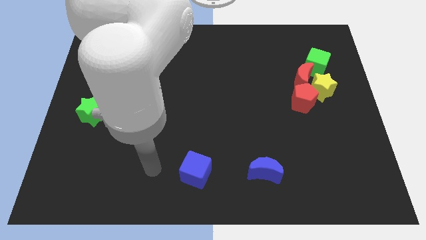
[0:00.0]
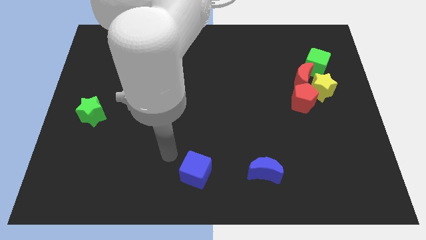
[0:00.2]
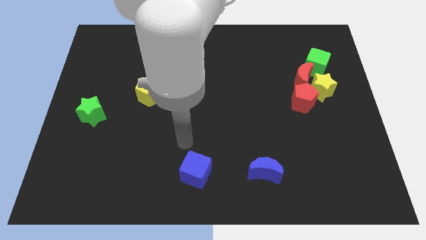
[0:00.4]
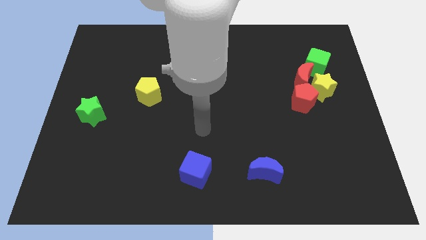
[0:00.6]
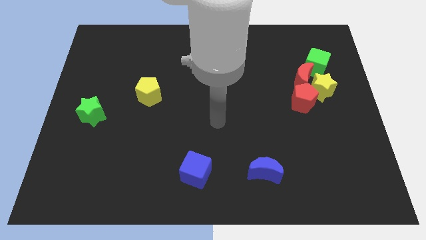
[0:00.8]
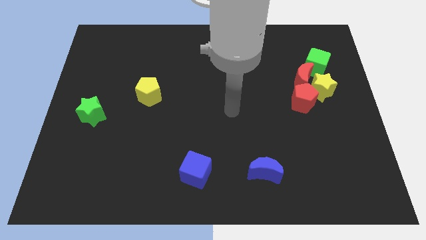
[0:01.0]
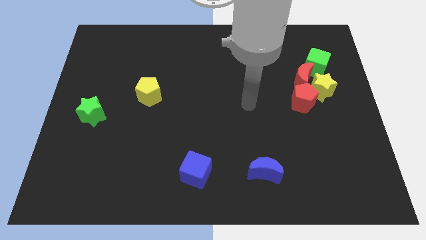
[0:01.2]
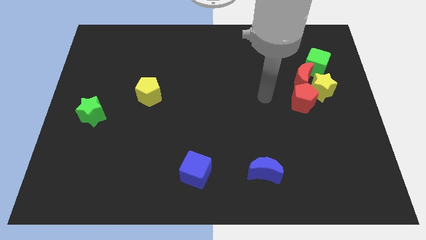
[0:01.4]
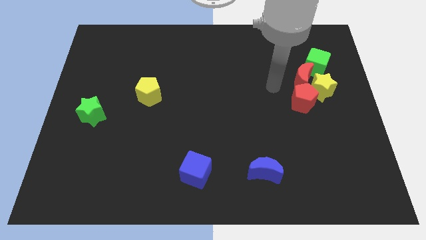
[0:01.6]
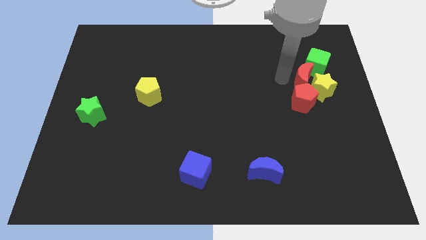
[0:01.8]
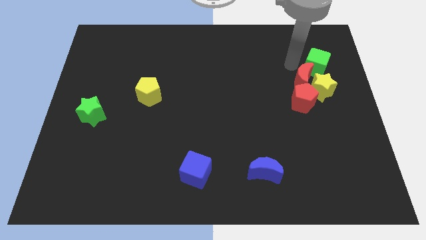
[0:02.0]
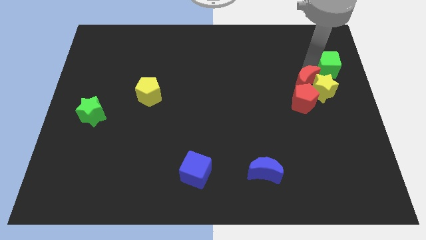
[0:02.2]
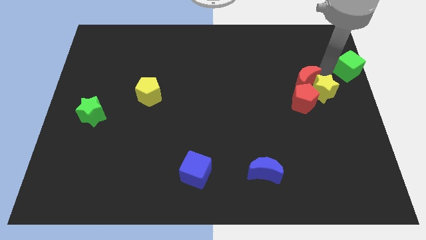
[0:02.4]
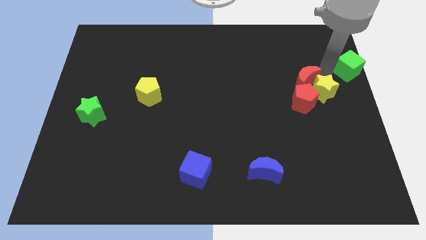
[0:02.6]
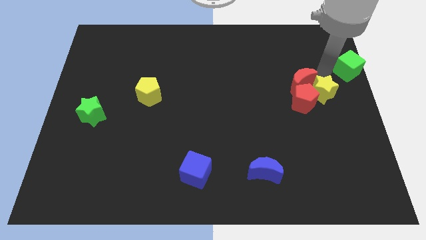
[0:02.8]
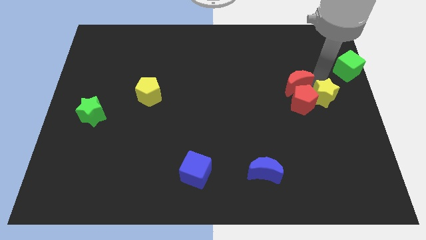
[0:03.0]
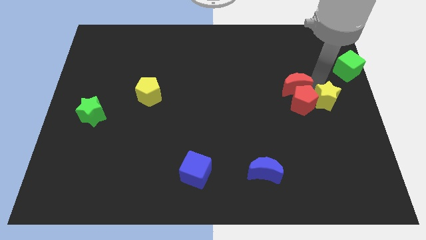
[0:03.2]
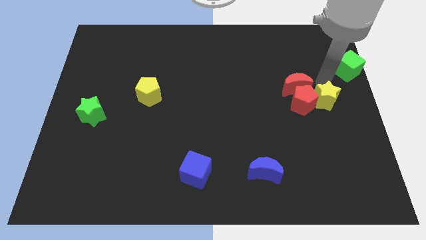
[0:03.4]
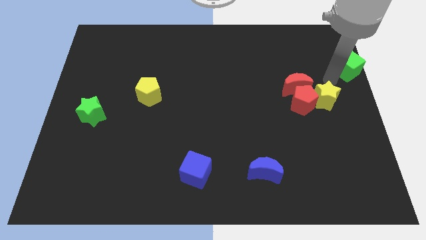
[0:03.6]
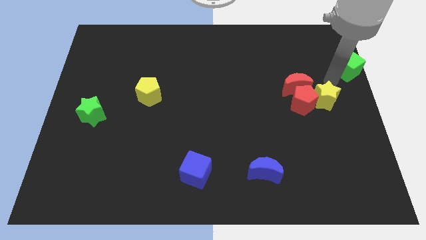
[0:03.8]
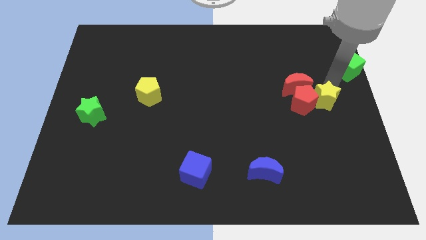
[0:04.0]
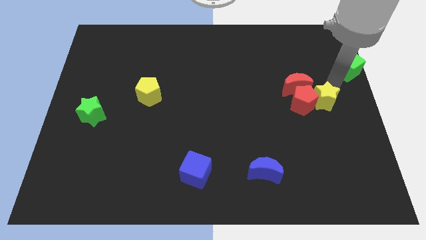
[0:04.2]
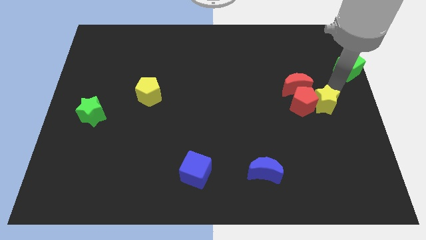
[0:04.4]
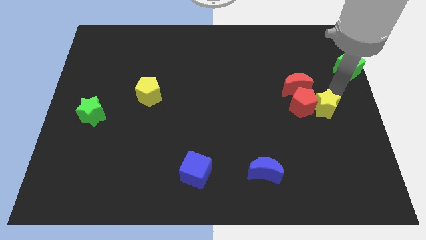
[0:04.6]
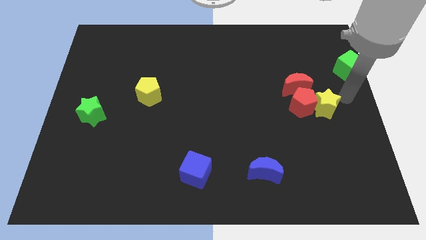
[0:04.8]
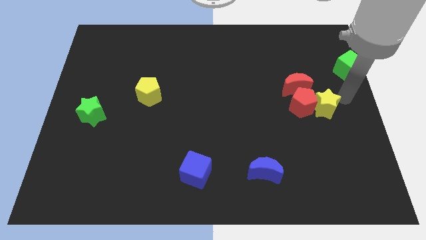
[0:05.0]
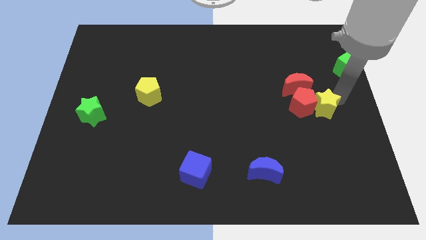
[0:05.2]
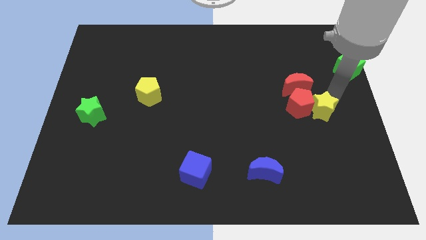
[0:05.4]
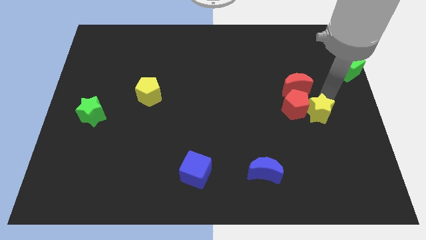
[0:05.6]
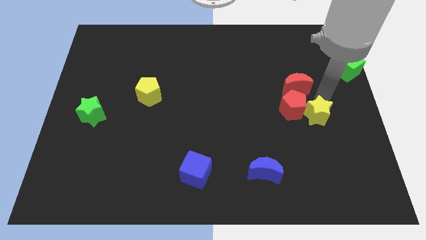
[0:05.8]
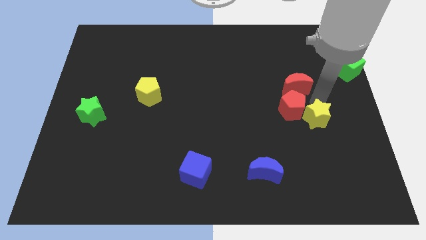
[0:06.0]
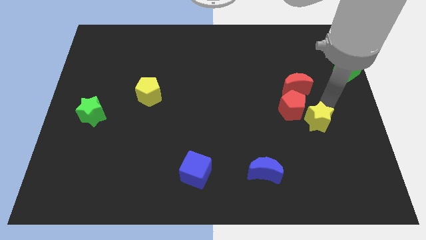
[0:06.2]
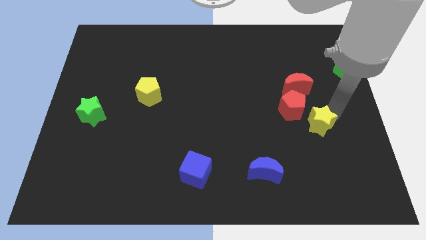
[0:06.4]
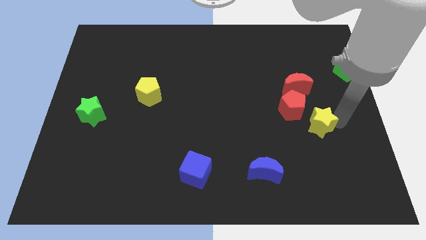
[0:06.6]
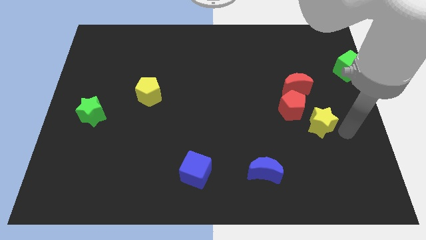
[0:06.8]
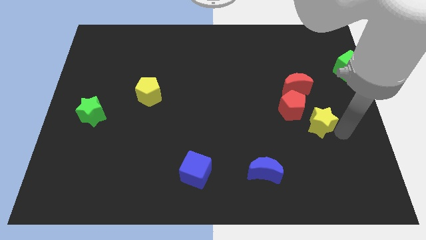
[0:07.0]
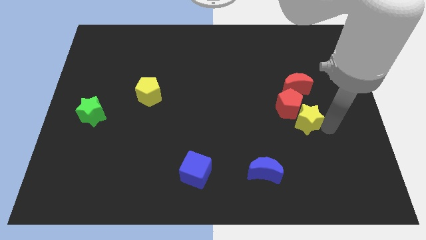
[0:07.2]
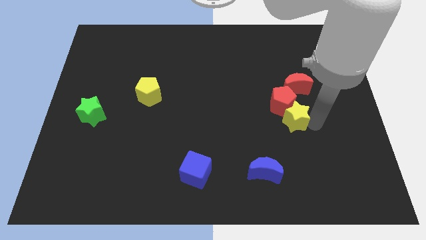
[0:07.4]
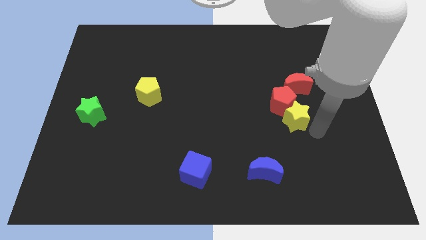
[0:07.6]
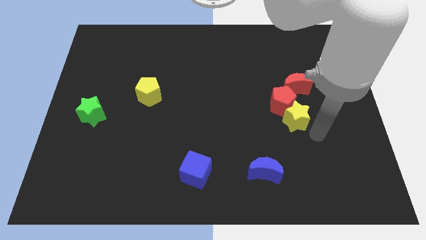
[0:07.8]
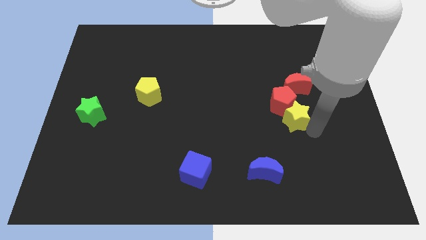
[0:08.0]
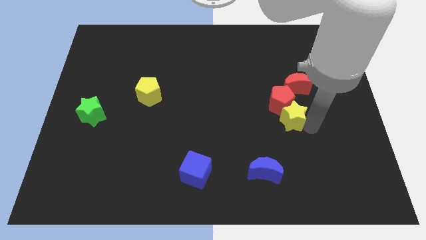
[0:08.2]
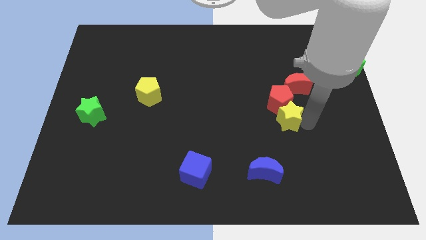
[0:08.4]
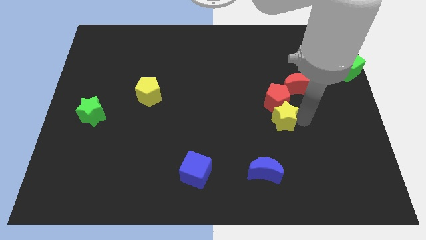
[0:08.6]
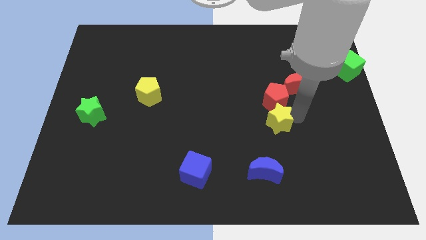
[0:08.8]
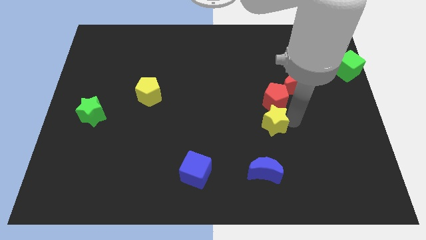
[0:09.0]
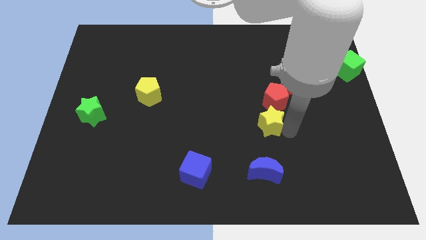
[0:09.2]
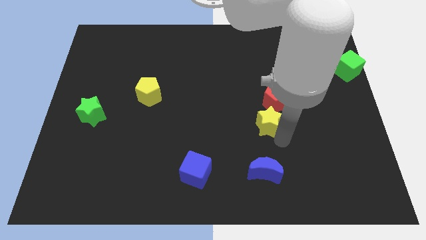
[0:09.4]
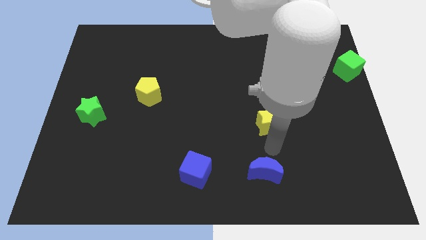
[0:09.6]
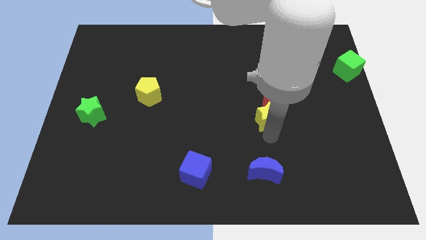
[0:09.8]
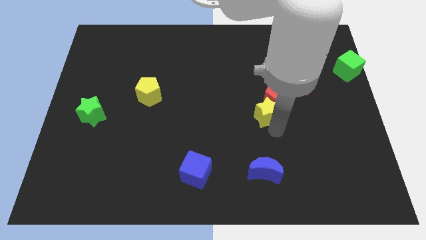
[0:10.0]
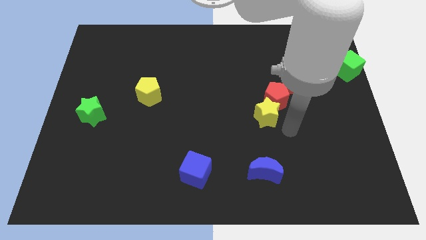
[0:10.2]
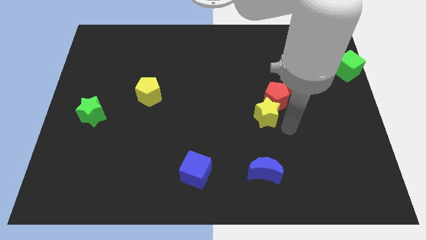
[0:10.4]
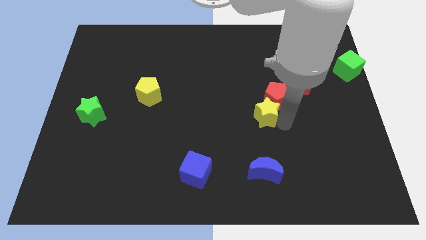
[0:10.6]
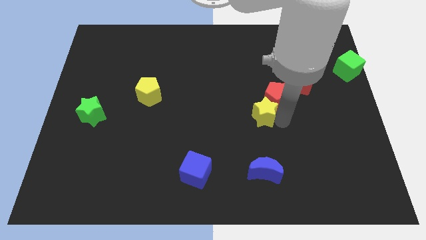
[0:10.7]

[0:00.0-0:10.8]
move the yellow star to the middle

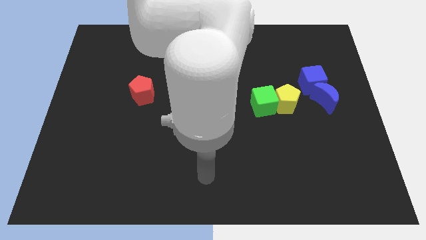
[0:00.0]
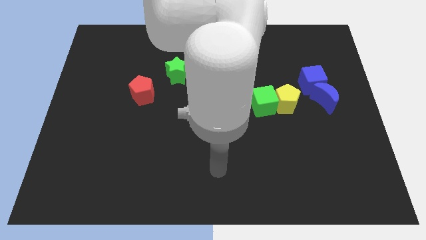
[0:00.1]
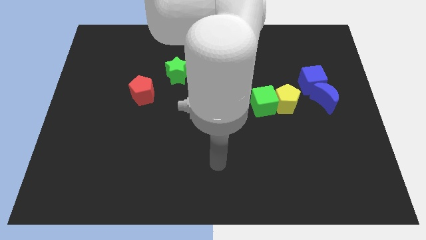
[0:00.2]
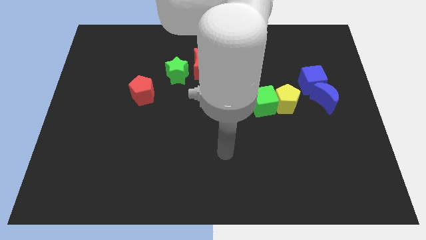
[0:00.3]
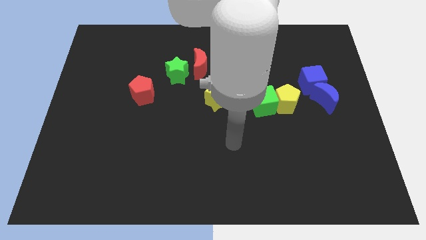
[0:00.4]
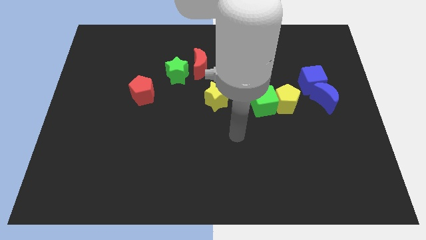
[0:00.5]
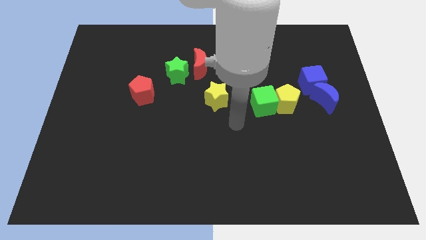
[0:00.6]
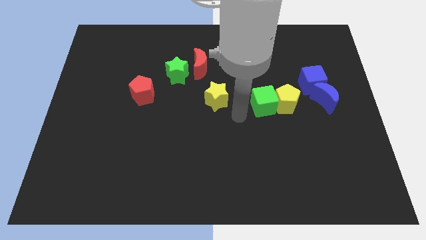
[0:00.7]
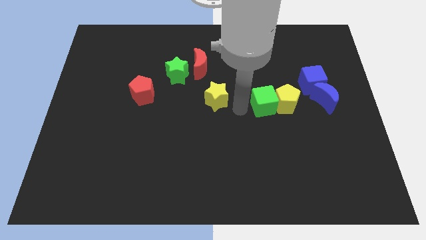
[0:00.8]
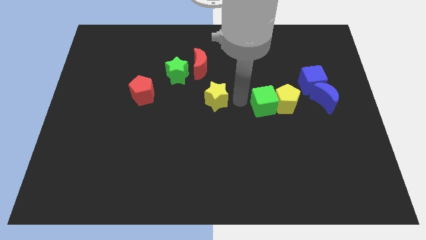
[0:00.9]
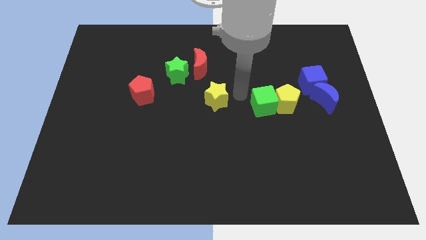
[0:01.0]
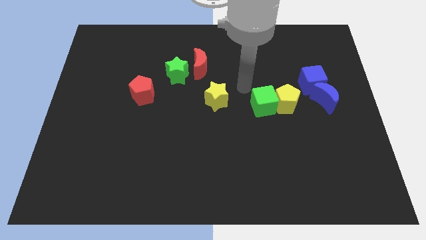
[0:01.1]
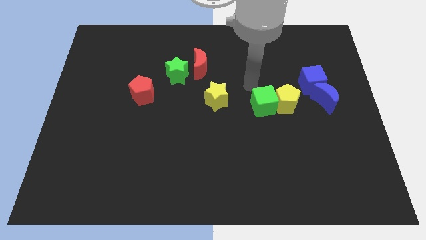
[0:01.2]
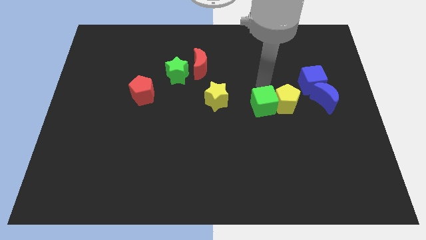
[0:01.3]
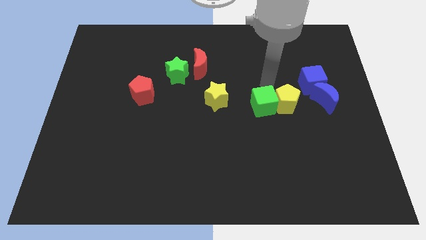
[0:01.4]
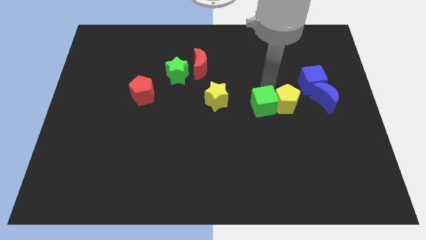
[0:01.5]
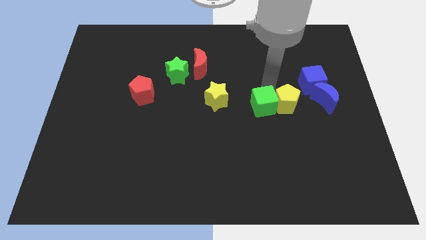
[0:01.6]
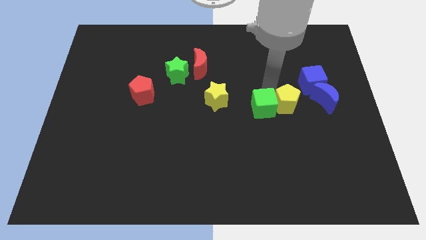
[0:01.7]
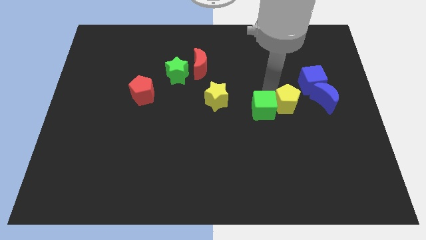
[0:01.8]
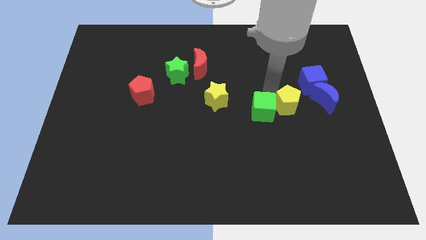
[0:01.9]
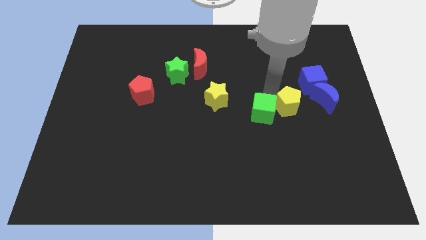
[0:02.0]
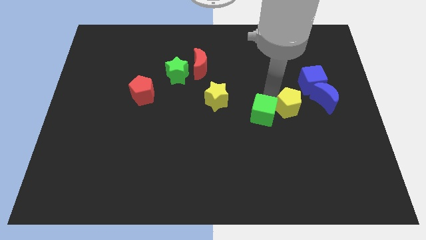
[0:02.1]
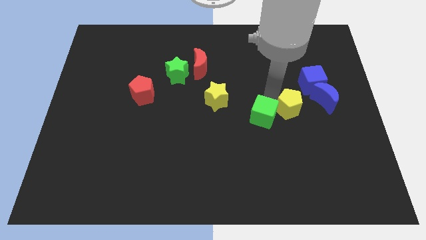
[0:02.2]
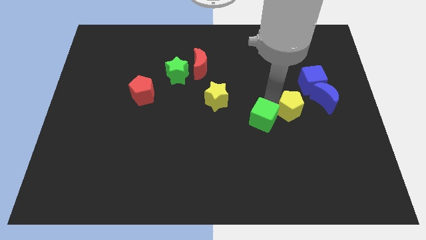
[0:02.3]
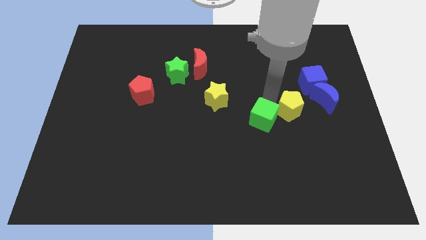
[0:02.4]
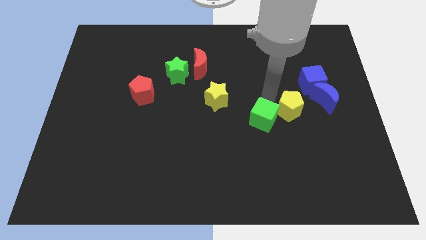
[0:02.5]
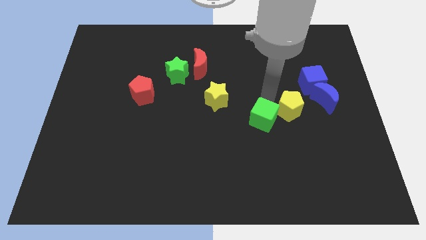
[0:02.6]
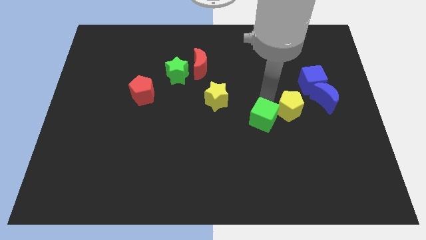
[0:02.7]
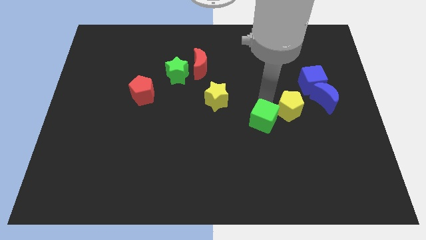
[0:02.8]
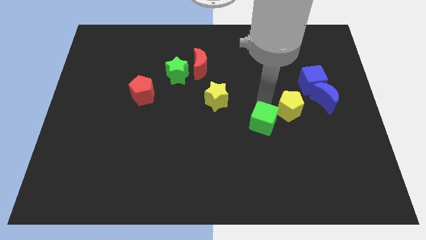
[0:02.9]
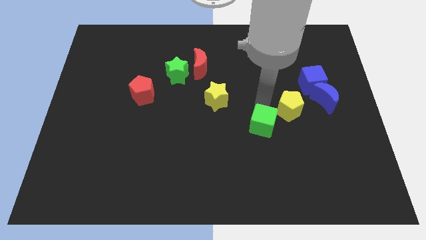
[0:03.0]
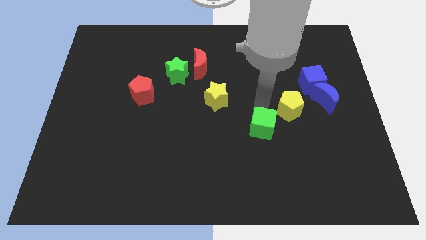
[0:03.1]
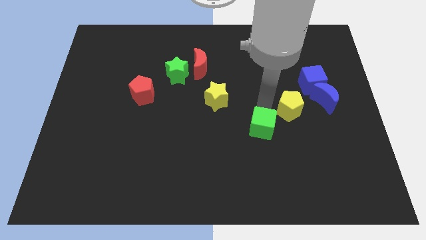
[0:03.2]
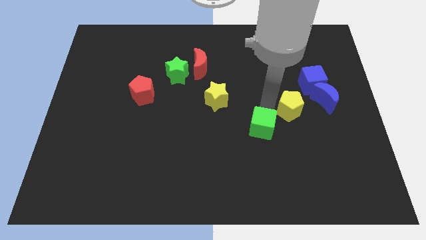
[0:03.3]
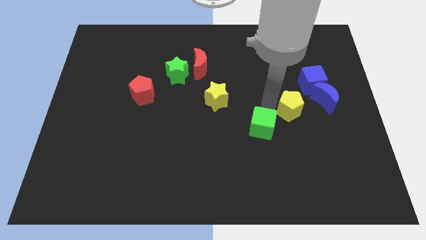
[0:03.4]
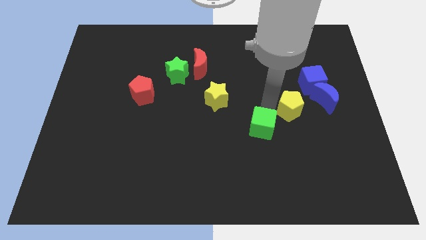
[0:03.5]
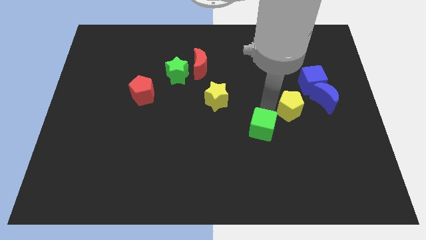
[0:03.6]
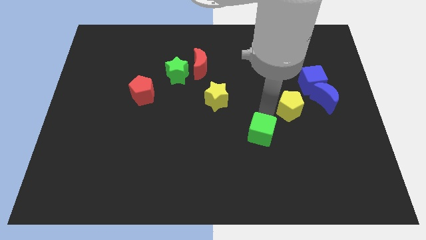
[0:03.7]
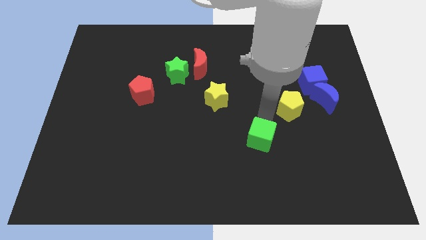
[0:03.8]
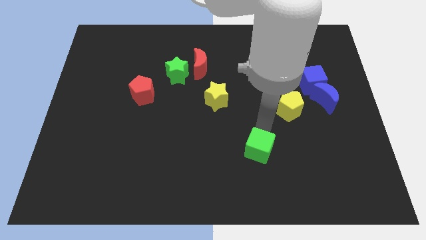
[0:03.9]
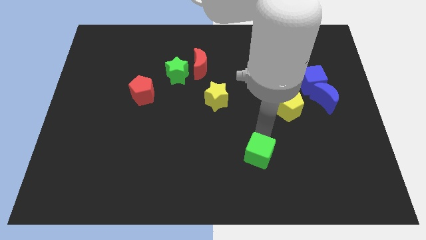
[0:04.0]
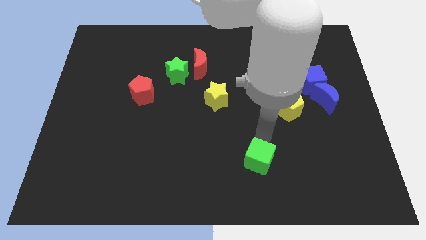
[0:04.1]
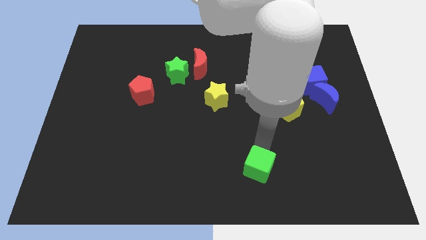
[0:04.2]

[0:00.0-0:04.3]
slide the green cube to the bottom
